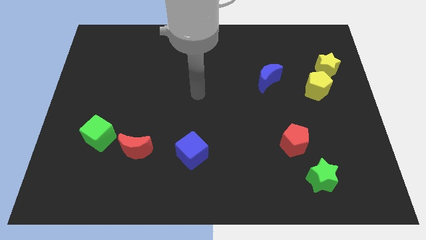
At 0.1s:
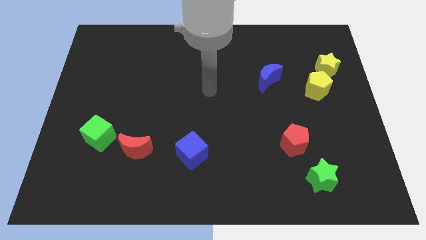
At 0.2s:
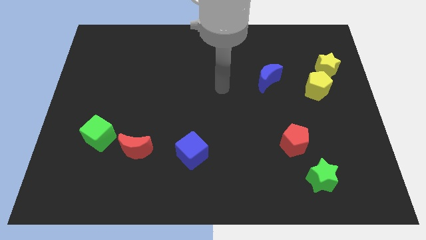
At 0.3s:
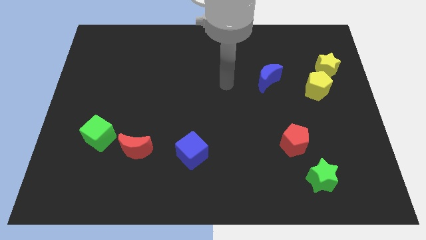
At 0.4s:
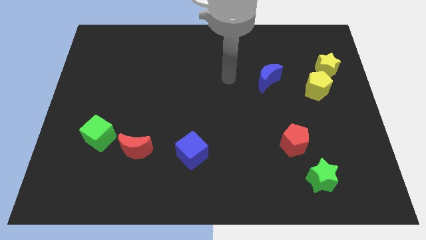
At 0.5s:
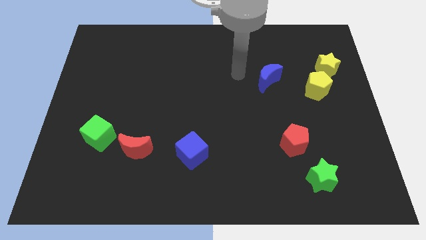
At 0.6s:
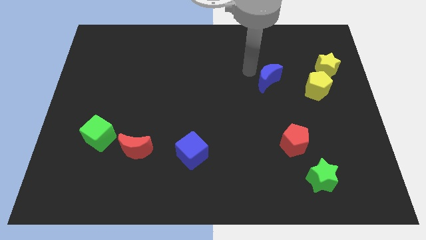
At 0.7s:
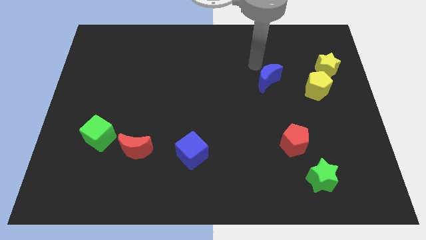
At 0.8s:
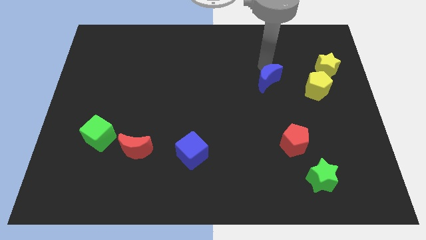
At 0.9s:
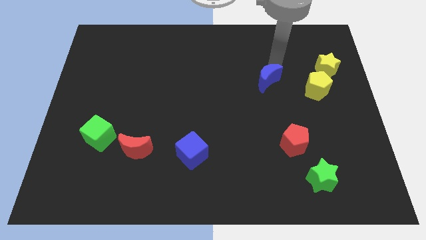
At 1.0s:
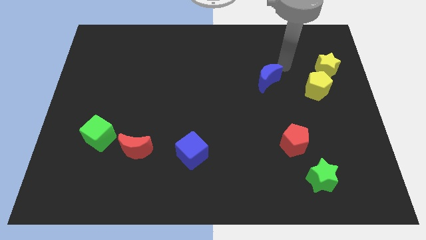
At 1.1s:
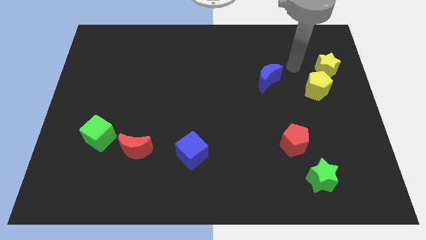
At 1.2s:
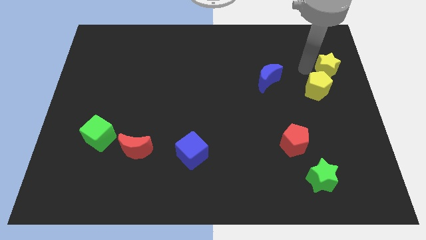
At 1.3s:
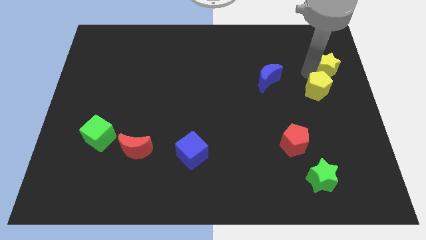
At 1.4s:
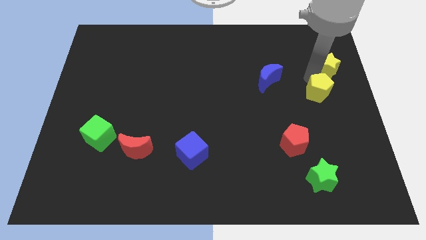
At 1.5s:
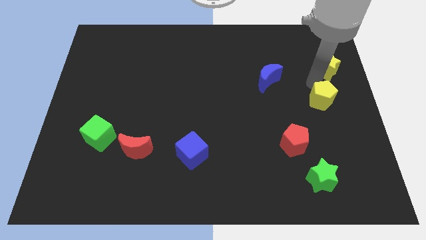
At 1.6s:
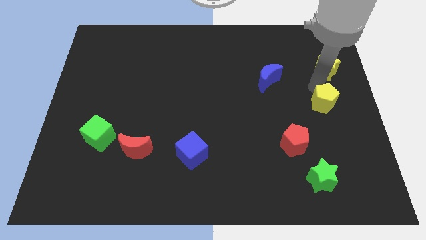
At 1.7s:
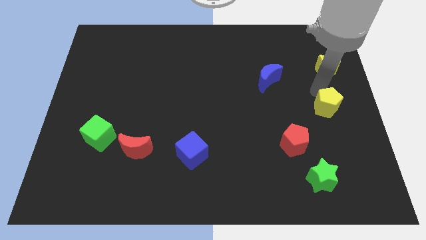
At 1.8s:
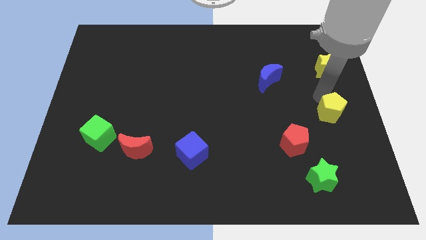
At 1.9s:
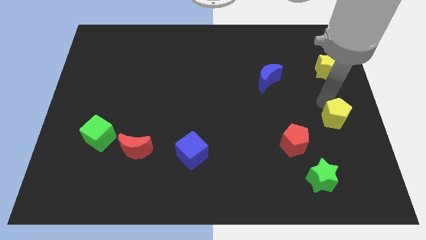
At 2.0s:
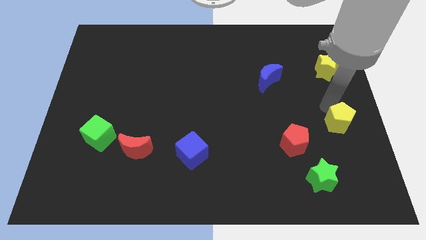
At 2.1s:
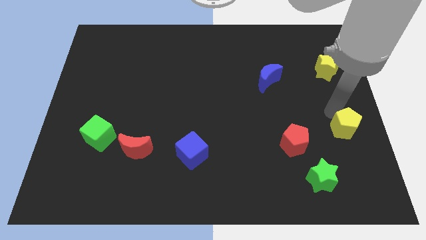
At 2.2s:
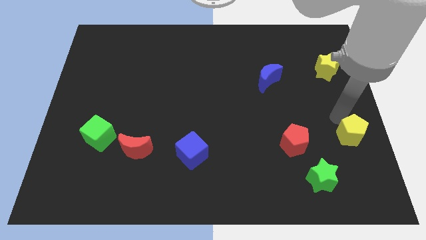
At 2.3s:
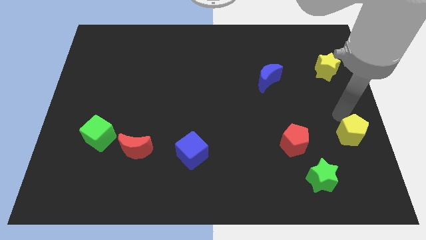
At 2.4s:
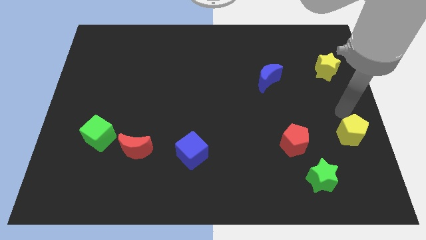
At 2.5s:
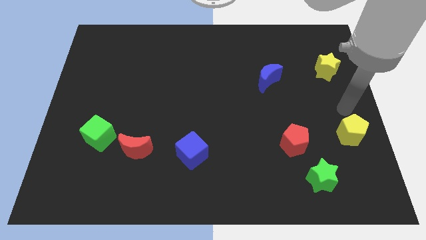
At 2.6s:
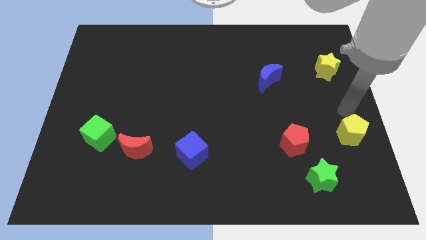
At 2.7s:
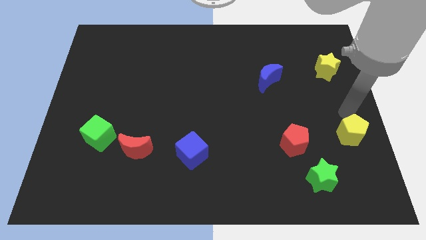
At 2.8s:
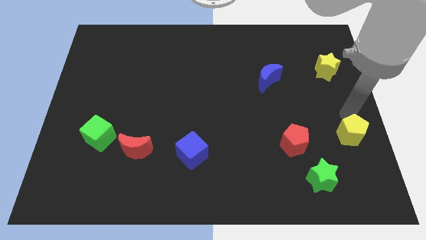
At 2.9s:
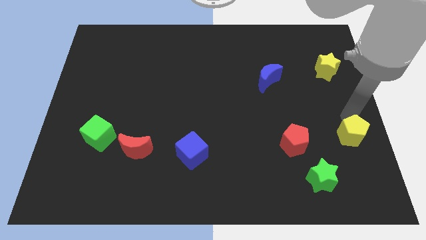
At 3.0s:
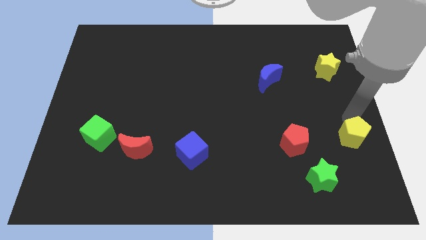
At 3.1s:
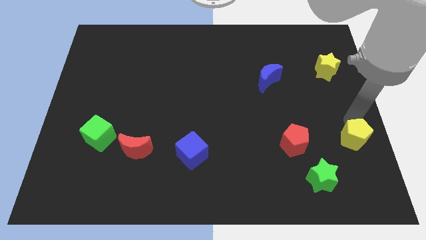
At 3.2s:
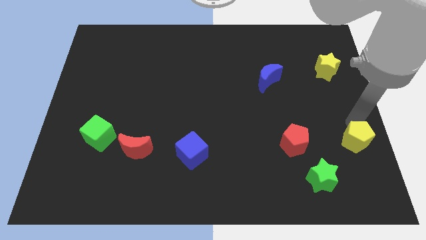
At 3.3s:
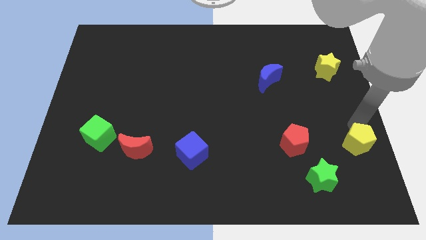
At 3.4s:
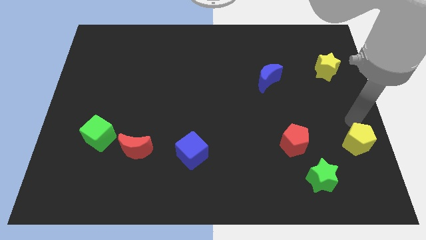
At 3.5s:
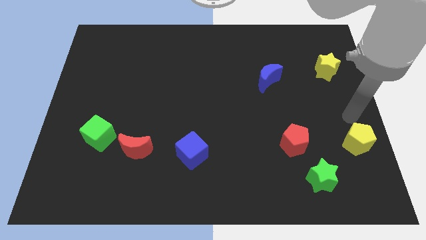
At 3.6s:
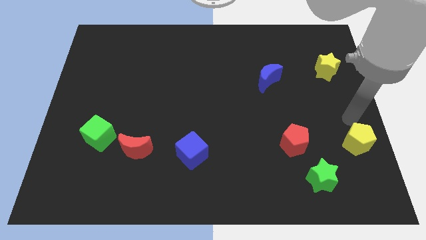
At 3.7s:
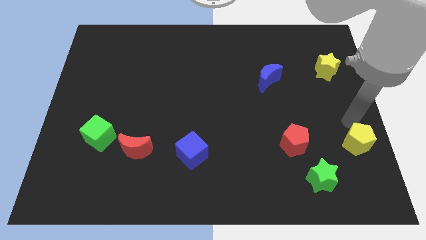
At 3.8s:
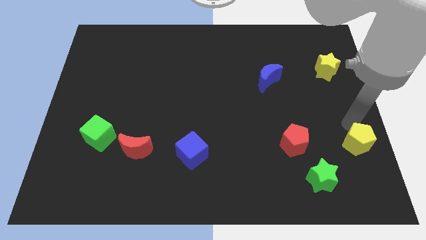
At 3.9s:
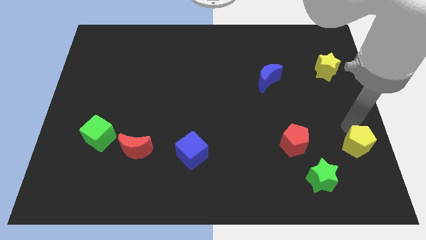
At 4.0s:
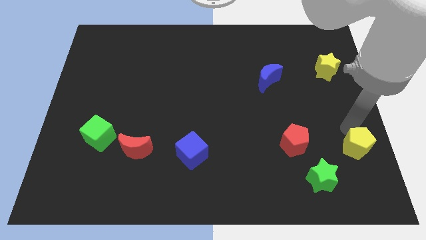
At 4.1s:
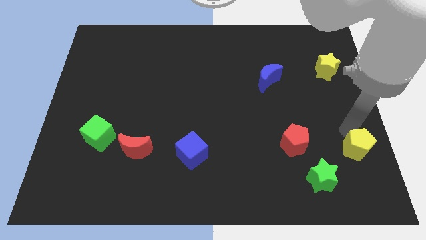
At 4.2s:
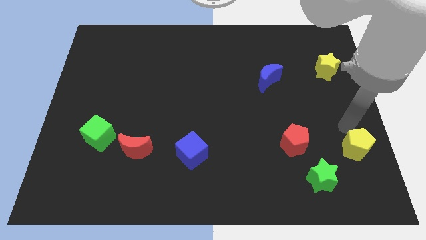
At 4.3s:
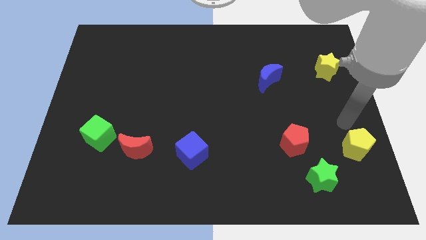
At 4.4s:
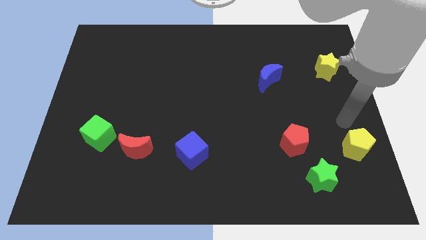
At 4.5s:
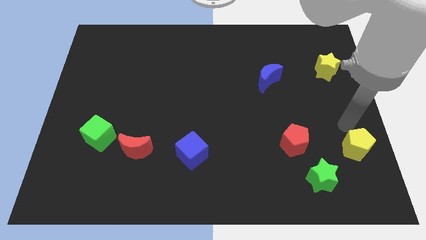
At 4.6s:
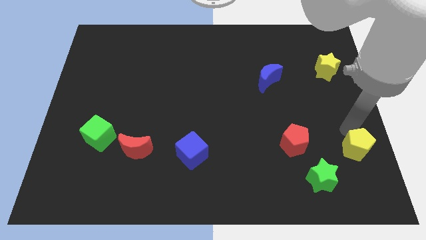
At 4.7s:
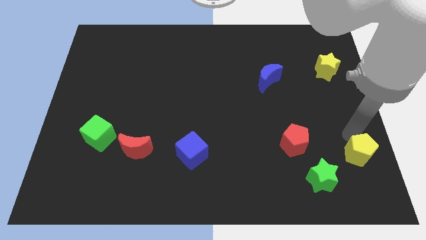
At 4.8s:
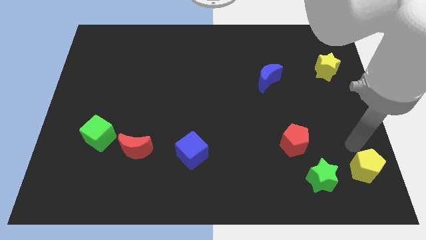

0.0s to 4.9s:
move the yellow pentagon to the bottom right of the board

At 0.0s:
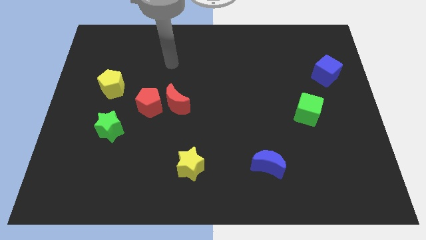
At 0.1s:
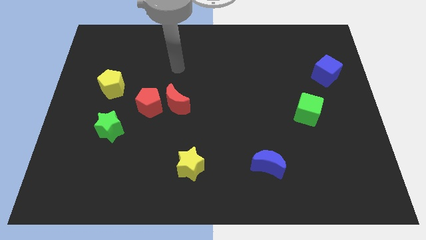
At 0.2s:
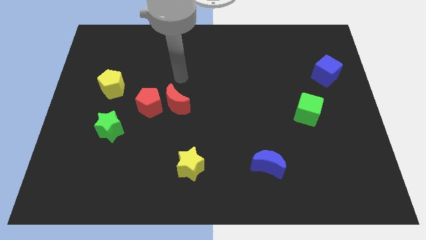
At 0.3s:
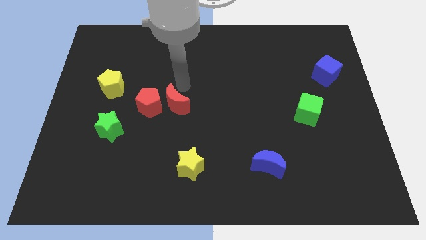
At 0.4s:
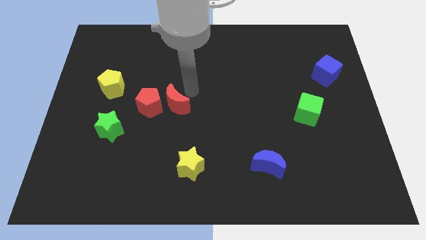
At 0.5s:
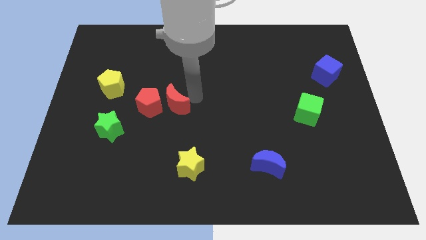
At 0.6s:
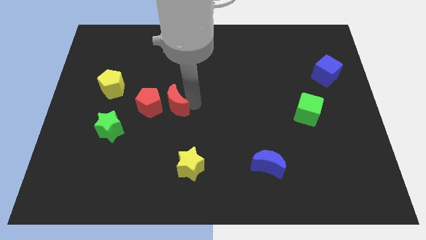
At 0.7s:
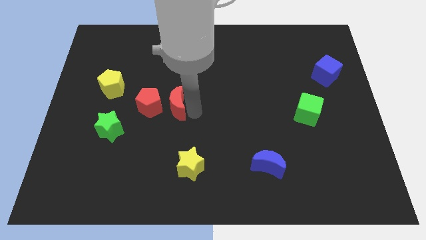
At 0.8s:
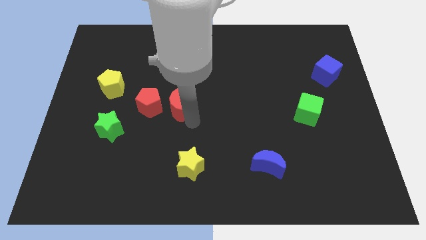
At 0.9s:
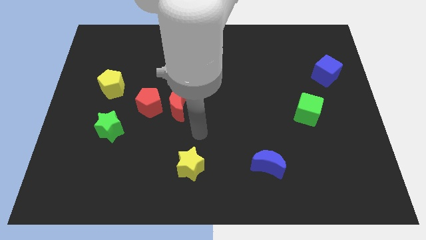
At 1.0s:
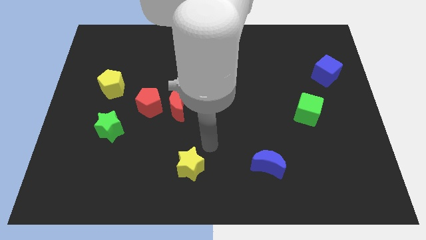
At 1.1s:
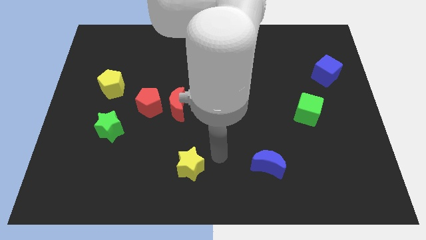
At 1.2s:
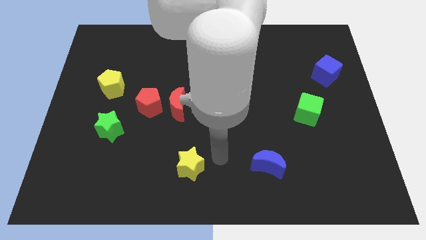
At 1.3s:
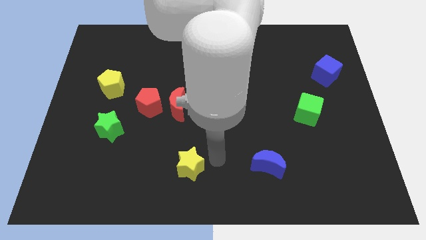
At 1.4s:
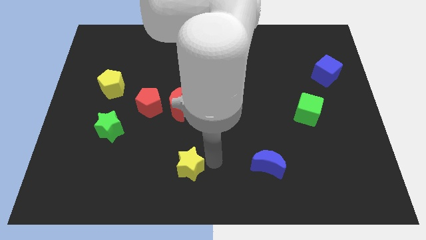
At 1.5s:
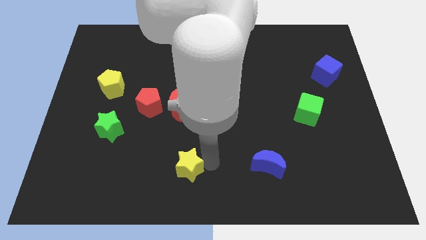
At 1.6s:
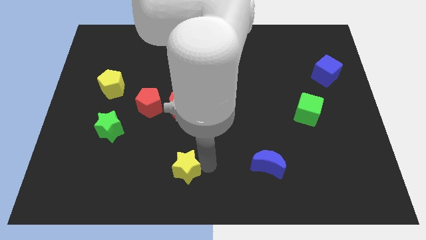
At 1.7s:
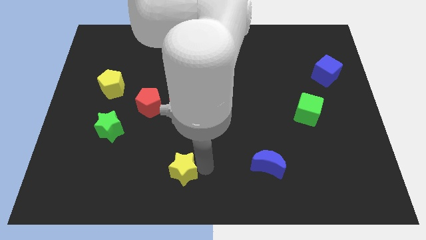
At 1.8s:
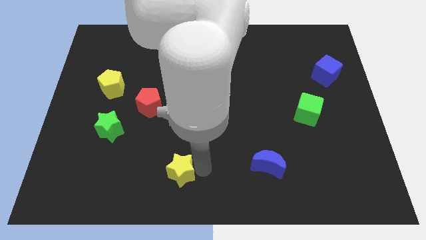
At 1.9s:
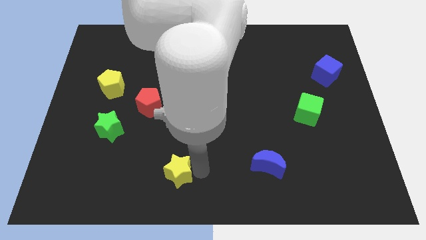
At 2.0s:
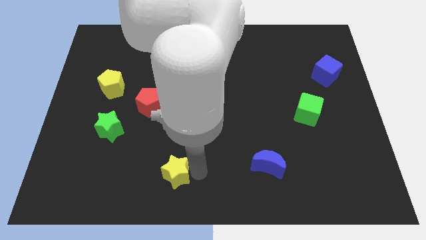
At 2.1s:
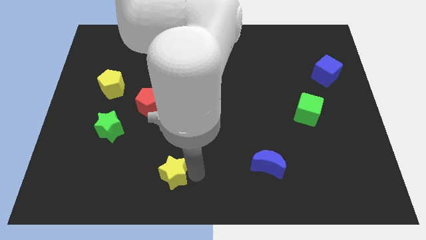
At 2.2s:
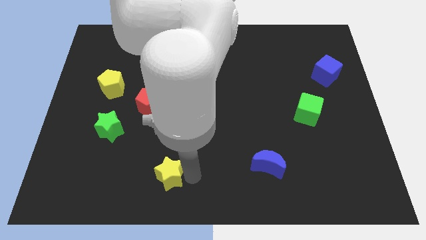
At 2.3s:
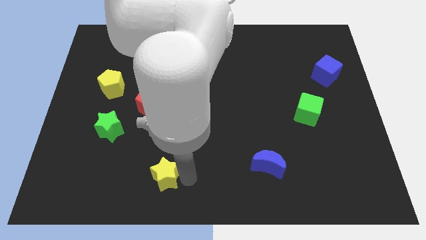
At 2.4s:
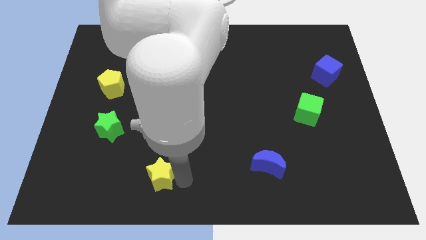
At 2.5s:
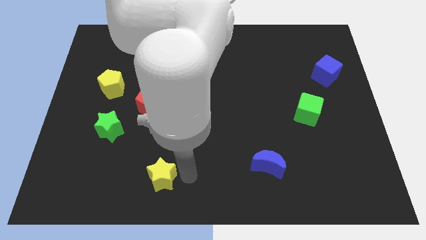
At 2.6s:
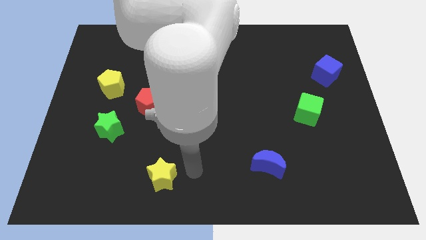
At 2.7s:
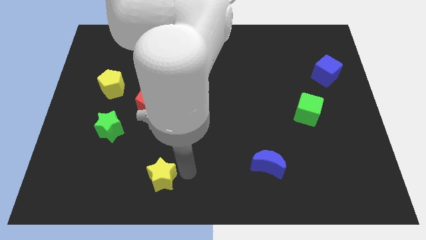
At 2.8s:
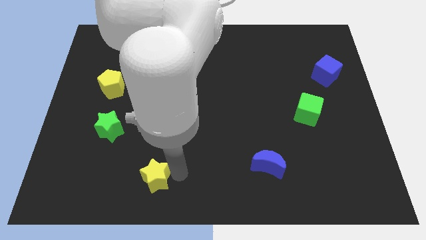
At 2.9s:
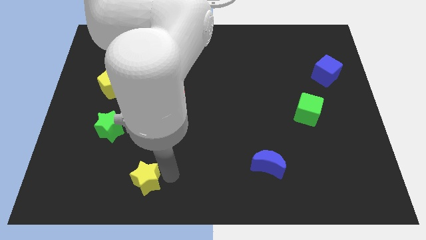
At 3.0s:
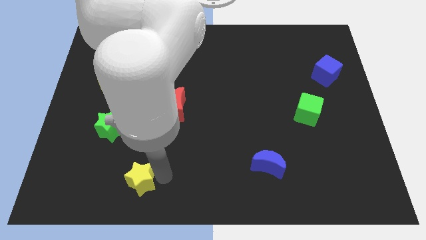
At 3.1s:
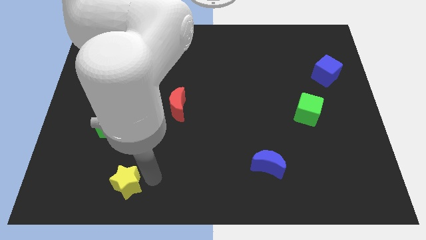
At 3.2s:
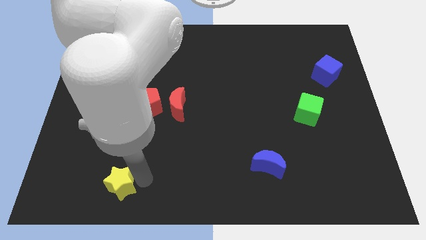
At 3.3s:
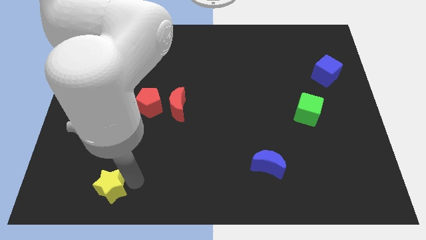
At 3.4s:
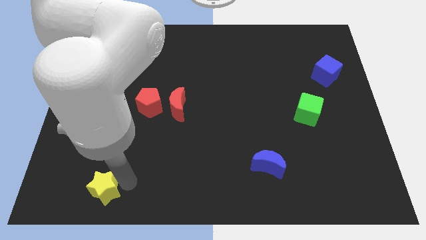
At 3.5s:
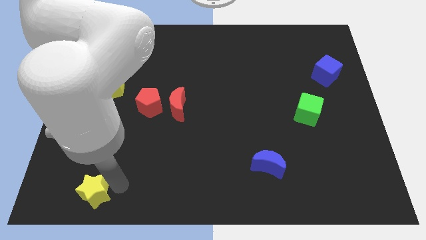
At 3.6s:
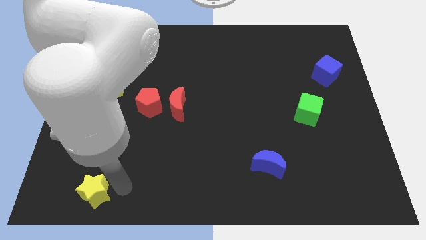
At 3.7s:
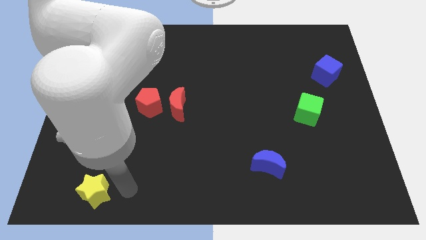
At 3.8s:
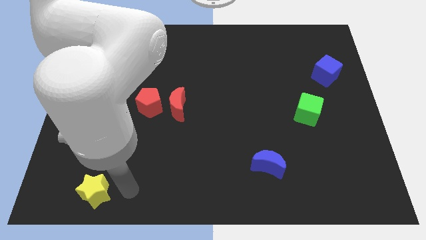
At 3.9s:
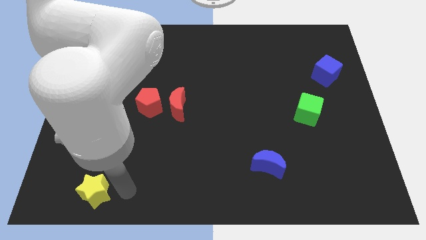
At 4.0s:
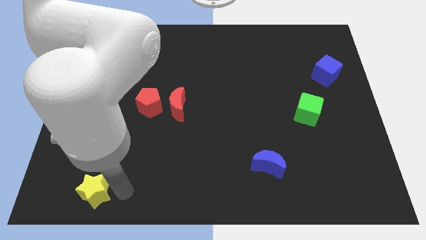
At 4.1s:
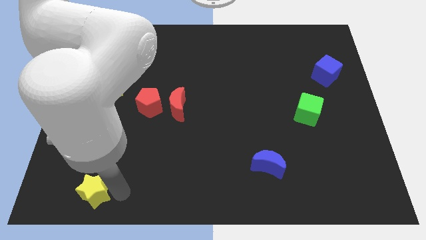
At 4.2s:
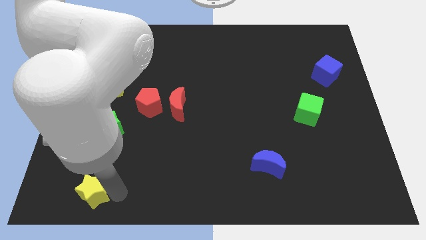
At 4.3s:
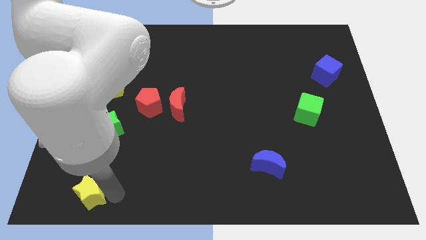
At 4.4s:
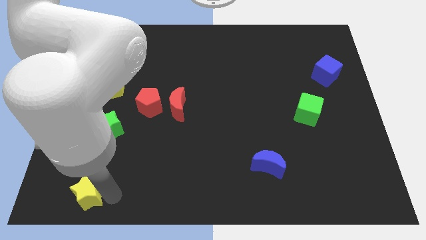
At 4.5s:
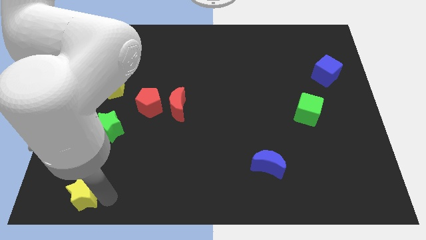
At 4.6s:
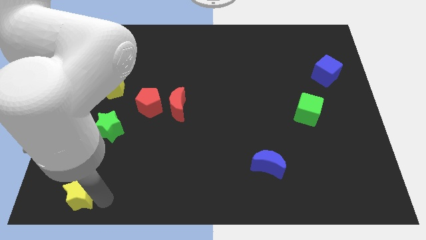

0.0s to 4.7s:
move the yellow star to the bottom left corner
